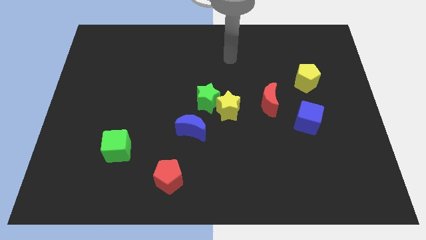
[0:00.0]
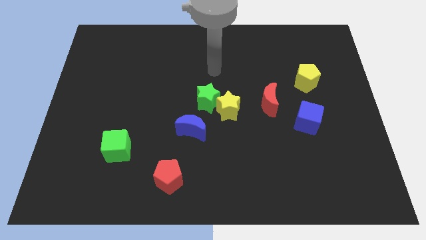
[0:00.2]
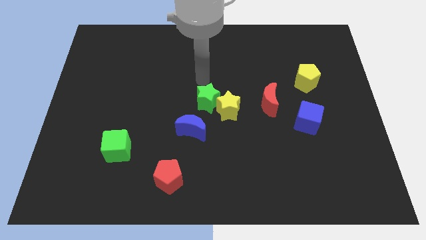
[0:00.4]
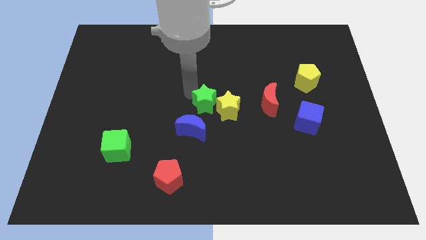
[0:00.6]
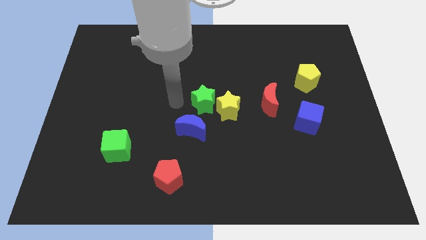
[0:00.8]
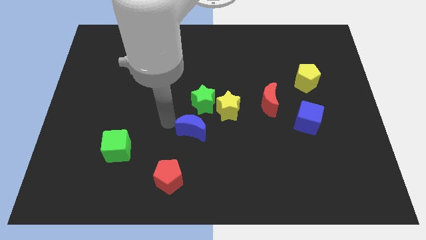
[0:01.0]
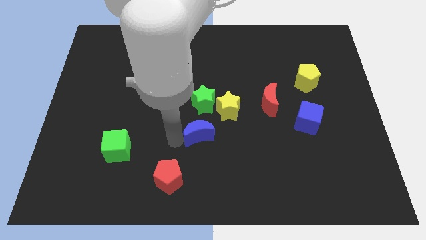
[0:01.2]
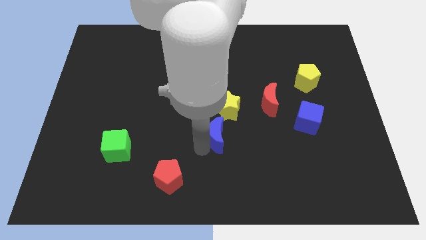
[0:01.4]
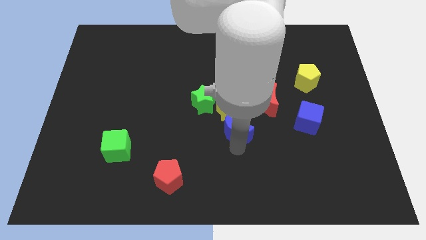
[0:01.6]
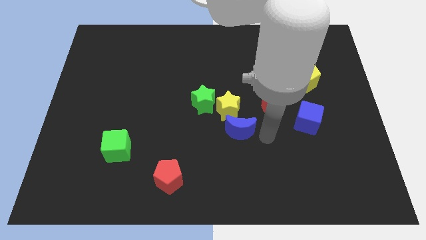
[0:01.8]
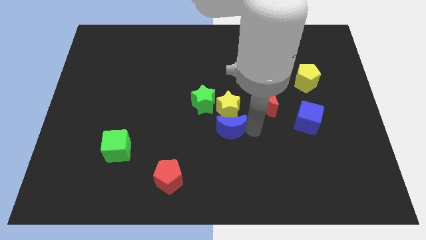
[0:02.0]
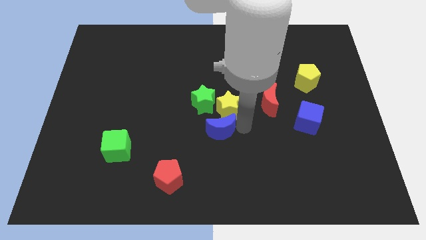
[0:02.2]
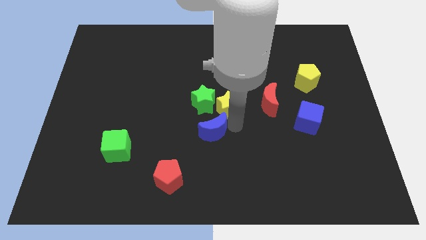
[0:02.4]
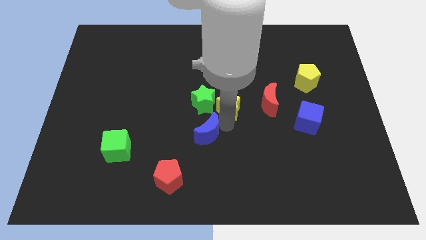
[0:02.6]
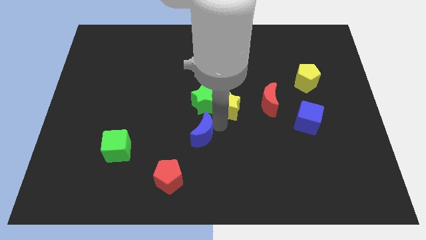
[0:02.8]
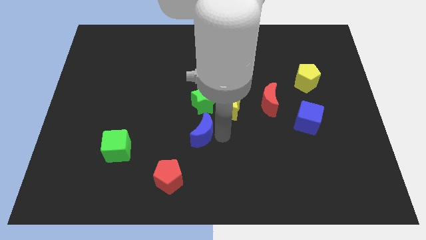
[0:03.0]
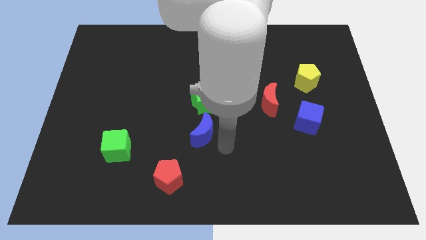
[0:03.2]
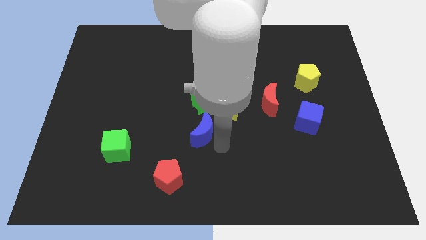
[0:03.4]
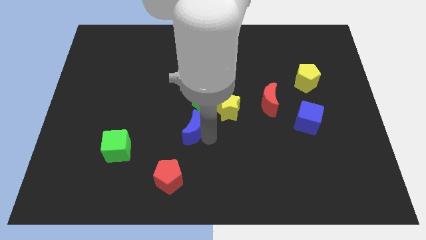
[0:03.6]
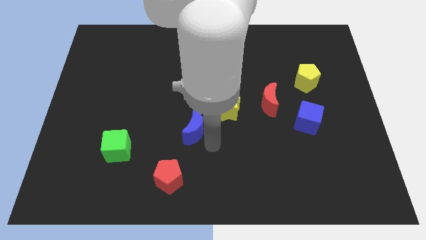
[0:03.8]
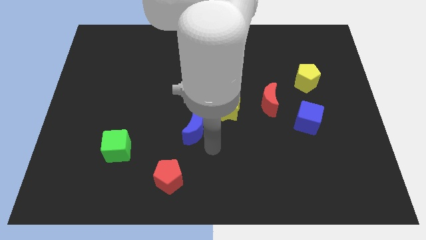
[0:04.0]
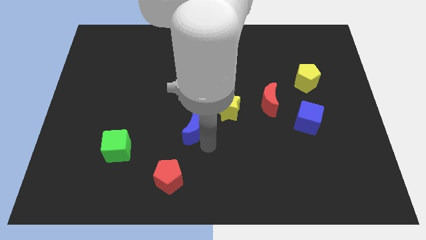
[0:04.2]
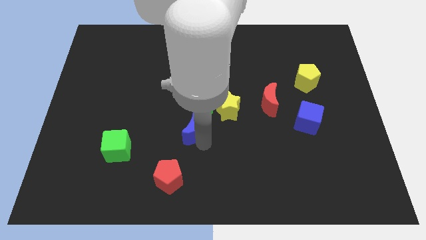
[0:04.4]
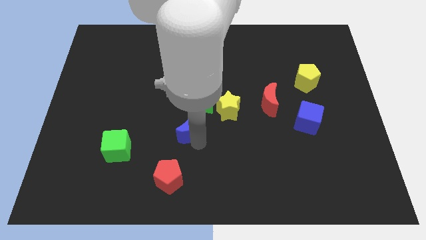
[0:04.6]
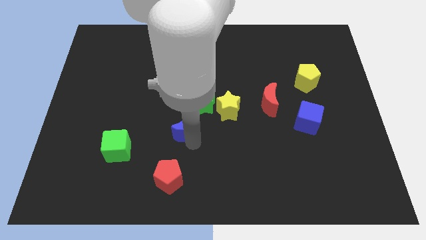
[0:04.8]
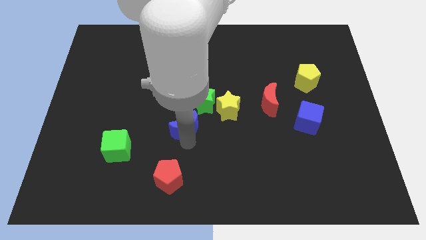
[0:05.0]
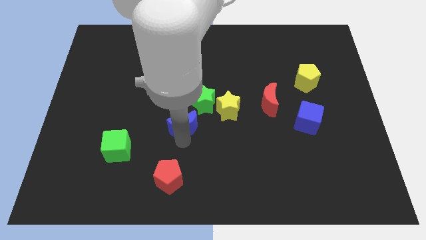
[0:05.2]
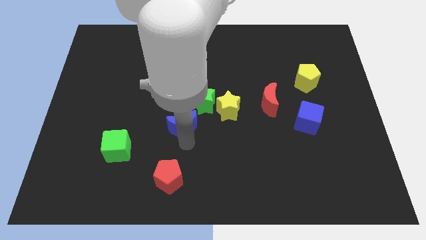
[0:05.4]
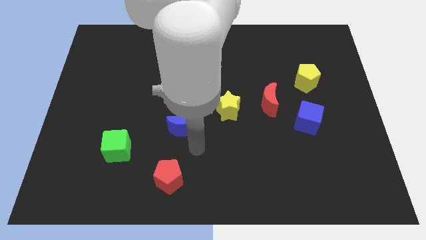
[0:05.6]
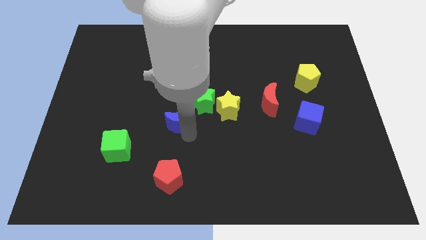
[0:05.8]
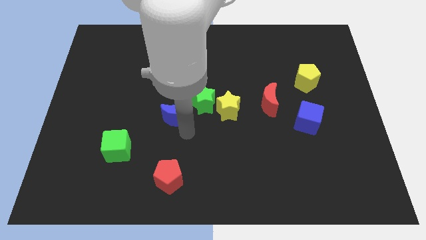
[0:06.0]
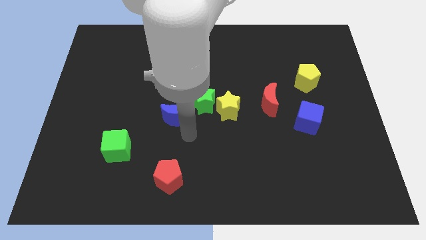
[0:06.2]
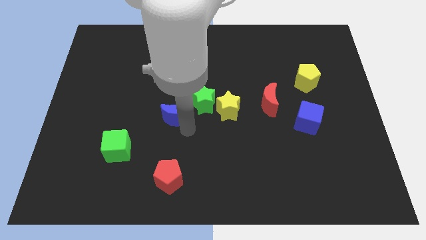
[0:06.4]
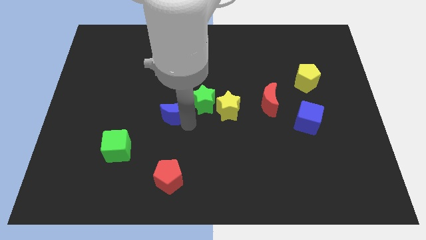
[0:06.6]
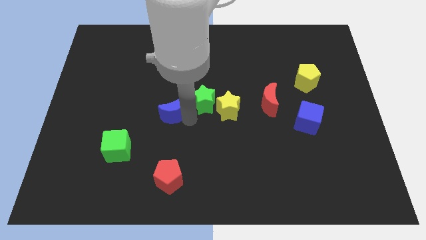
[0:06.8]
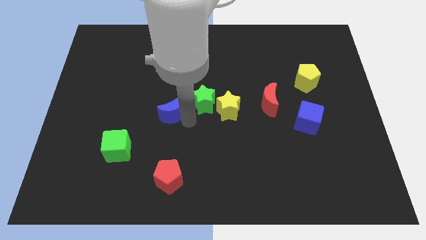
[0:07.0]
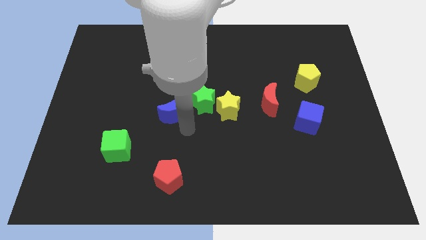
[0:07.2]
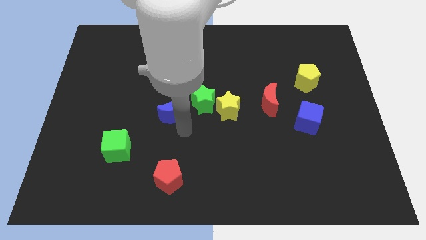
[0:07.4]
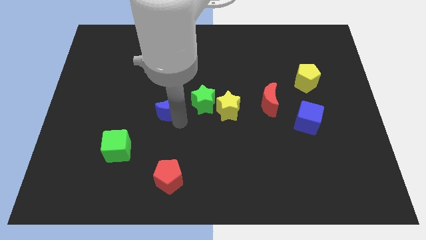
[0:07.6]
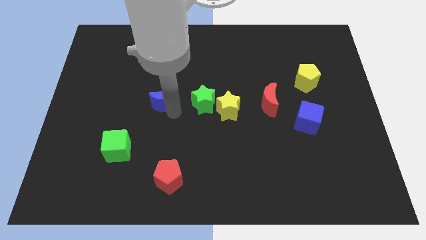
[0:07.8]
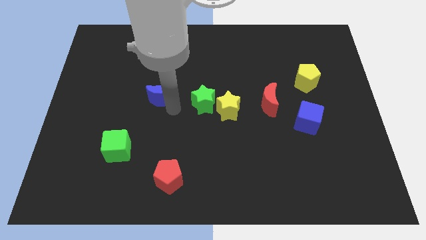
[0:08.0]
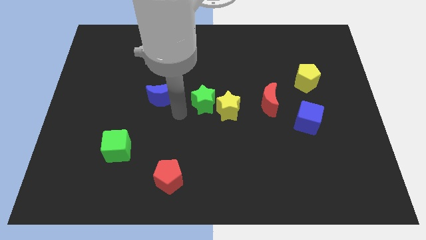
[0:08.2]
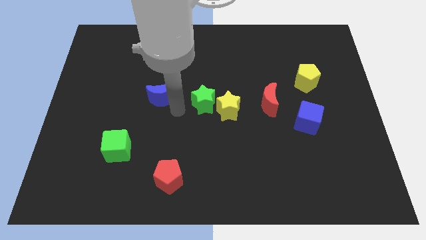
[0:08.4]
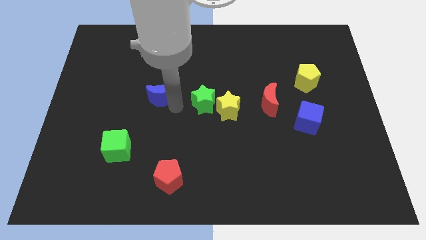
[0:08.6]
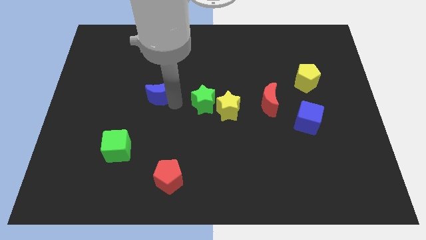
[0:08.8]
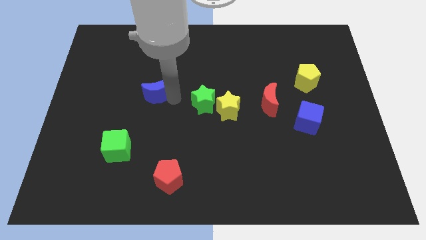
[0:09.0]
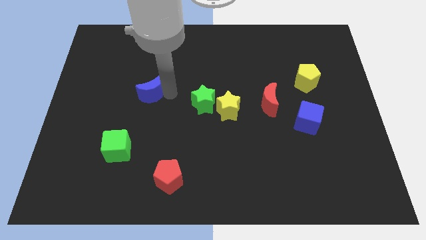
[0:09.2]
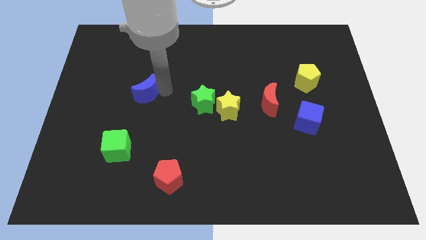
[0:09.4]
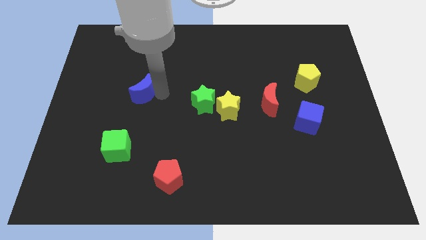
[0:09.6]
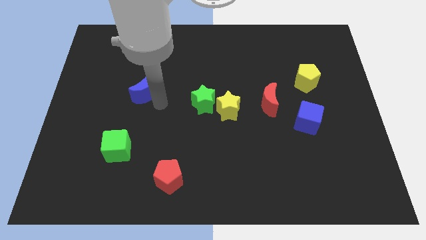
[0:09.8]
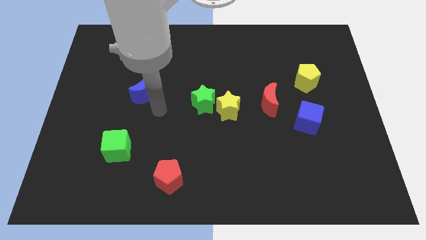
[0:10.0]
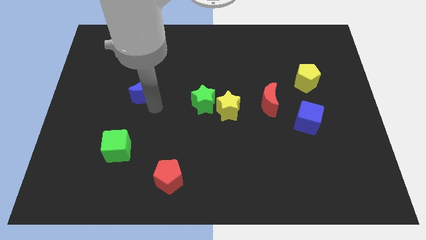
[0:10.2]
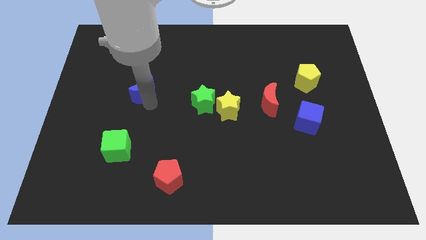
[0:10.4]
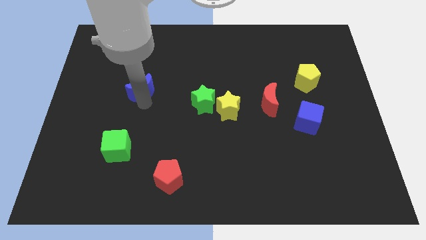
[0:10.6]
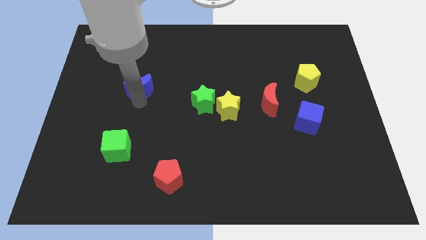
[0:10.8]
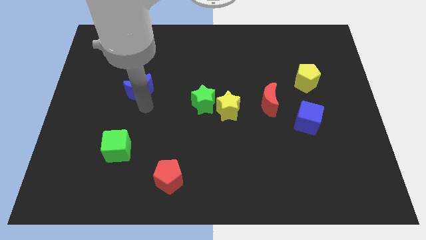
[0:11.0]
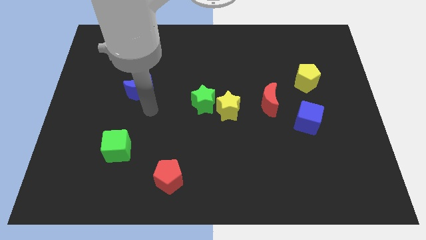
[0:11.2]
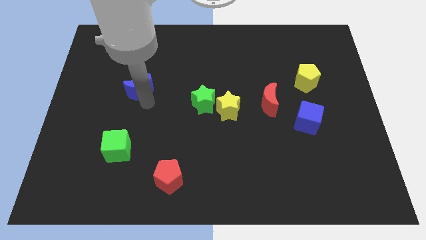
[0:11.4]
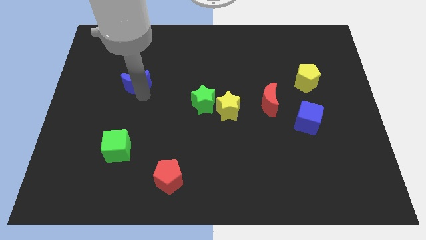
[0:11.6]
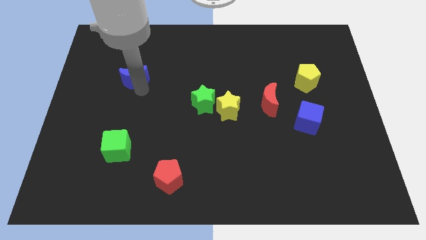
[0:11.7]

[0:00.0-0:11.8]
push the blue moon up and then left

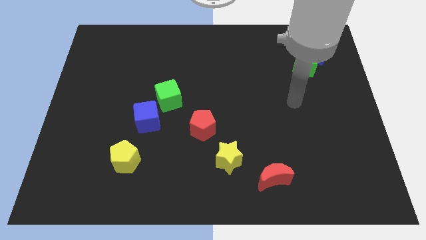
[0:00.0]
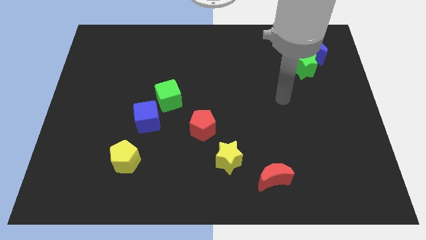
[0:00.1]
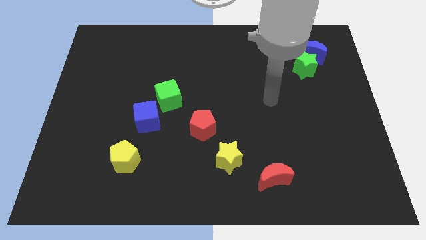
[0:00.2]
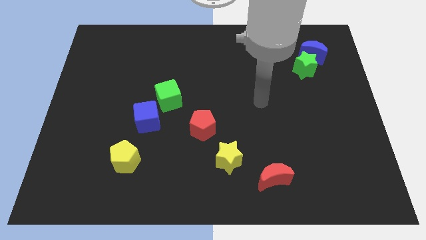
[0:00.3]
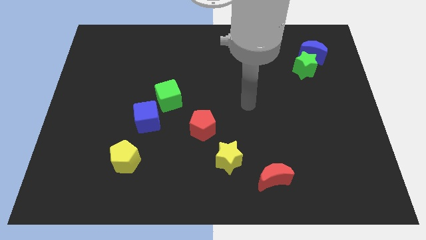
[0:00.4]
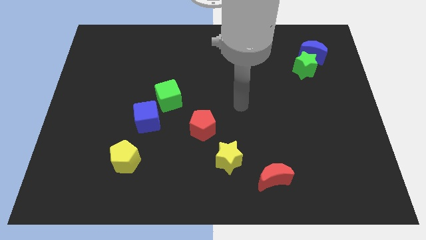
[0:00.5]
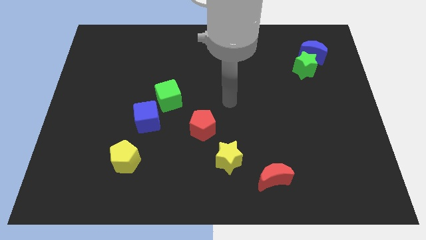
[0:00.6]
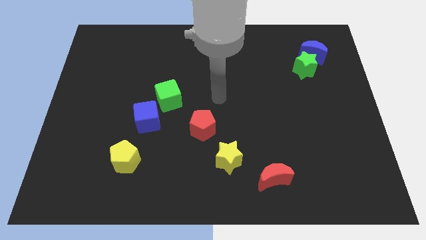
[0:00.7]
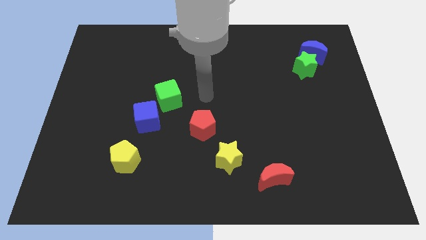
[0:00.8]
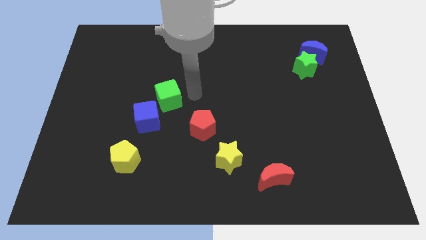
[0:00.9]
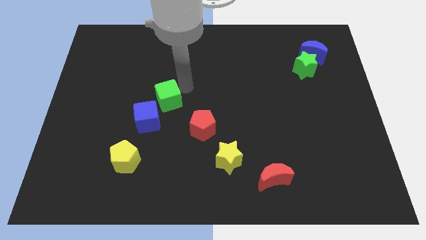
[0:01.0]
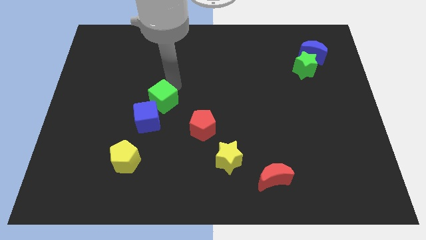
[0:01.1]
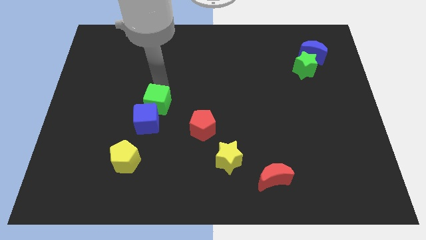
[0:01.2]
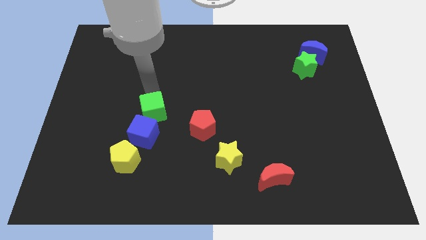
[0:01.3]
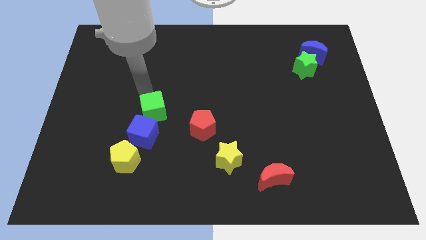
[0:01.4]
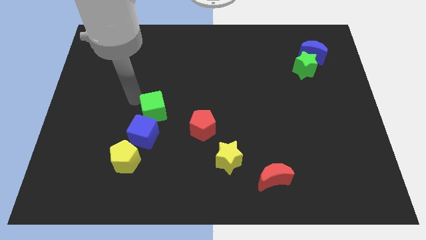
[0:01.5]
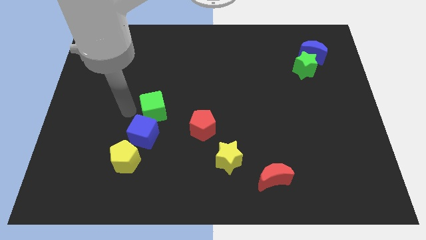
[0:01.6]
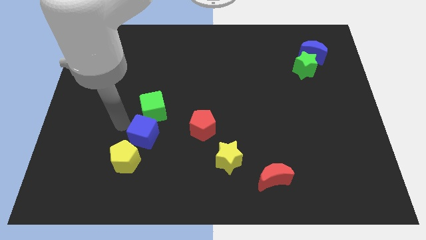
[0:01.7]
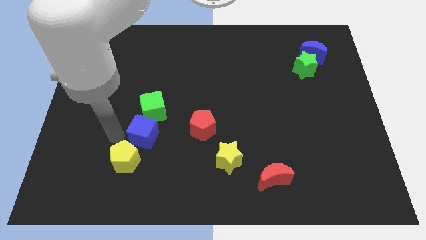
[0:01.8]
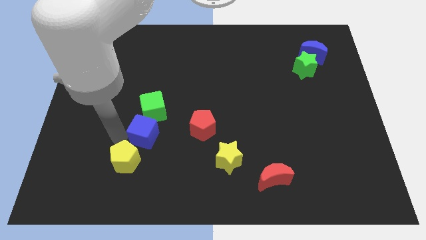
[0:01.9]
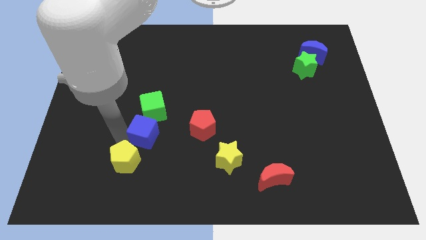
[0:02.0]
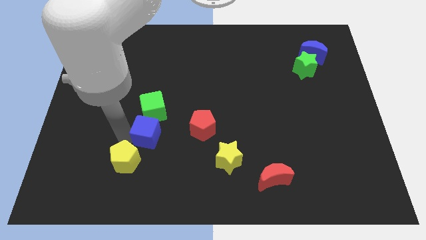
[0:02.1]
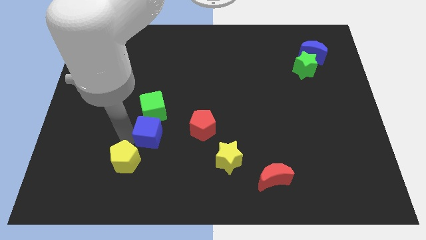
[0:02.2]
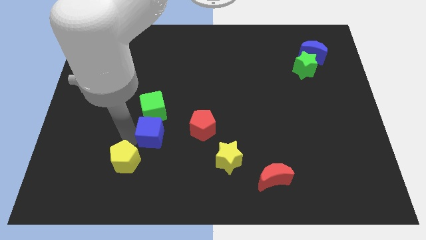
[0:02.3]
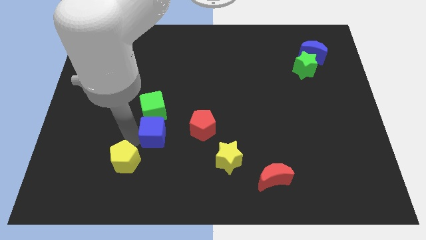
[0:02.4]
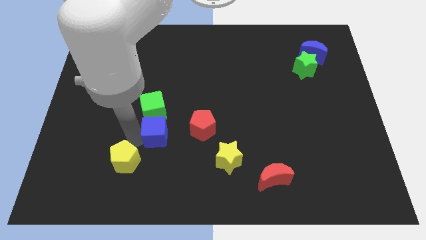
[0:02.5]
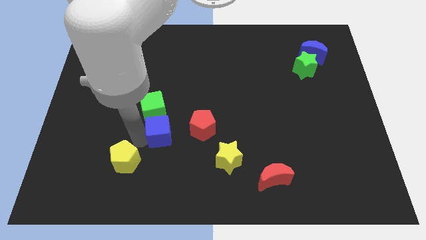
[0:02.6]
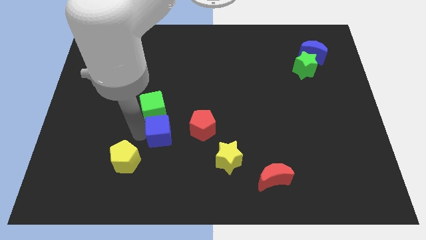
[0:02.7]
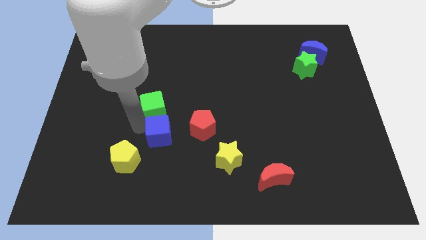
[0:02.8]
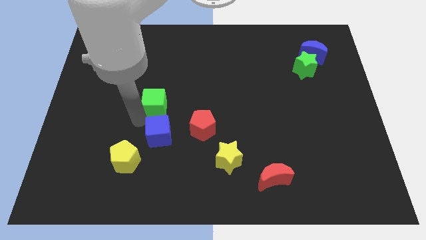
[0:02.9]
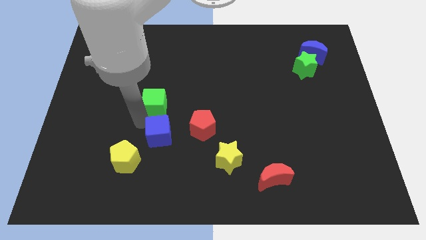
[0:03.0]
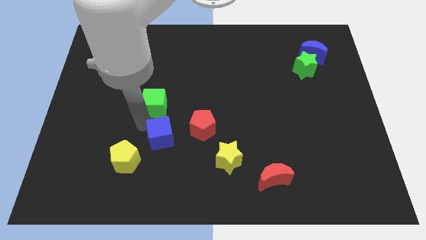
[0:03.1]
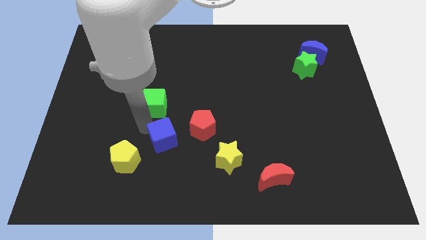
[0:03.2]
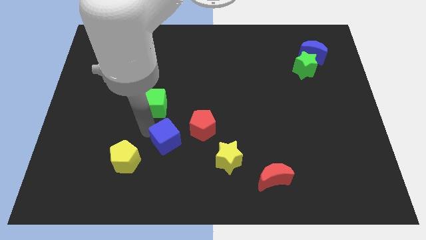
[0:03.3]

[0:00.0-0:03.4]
slide the blue cube a little bit diagonally down and to the right
